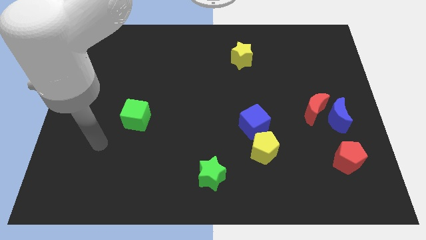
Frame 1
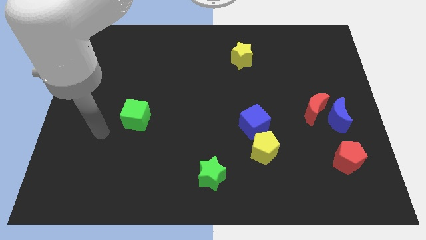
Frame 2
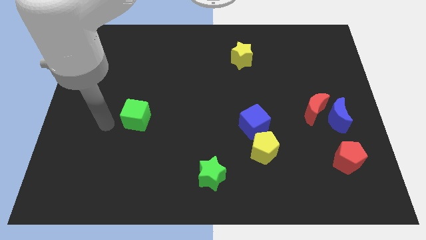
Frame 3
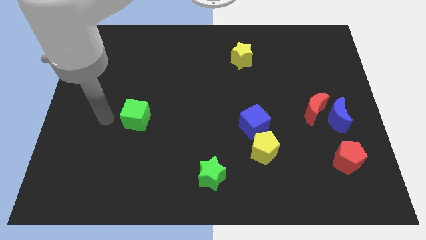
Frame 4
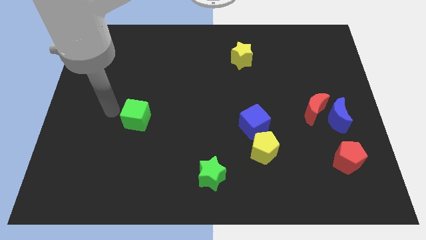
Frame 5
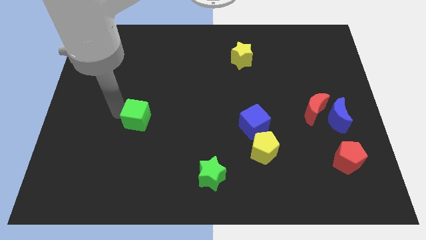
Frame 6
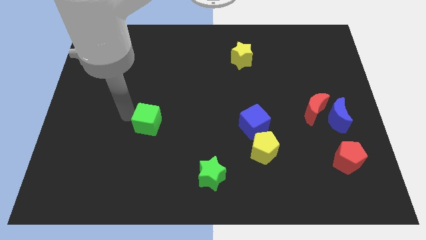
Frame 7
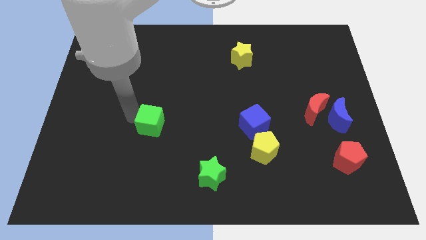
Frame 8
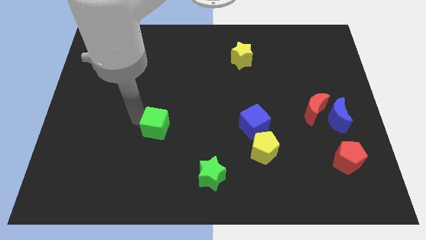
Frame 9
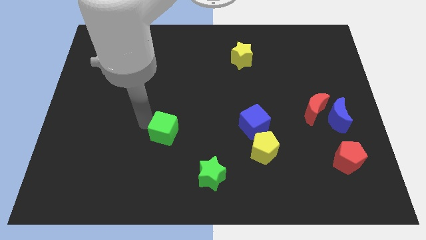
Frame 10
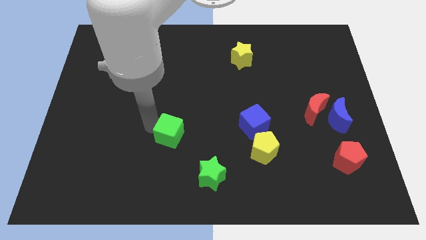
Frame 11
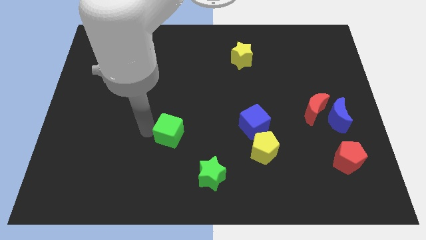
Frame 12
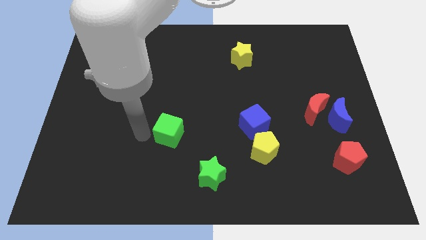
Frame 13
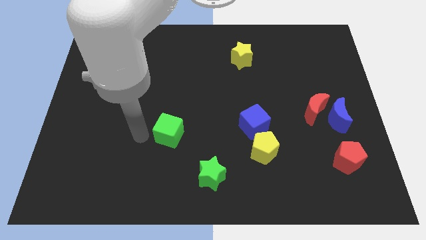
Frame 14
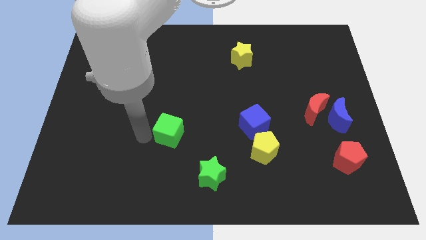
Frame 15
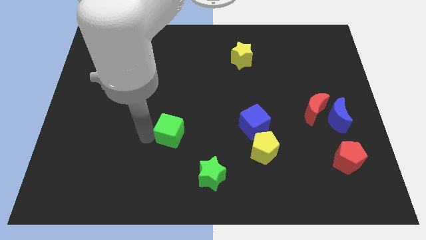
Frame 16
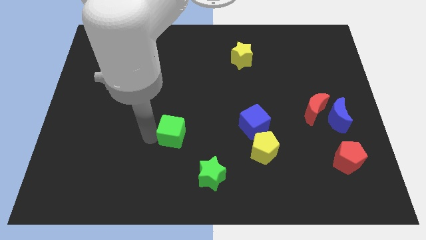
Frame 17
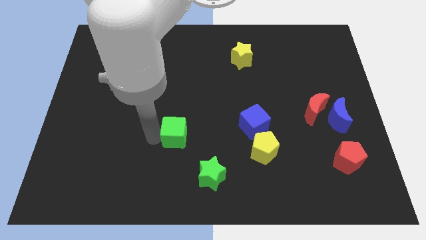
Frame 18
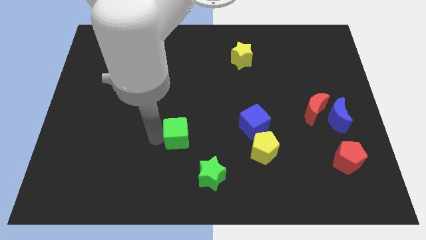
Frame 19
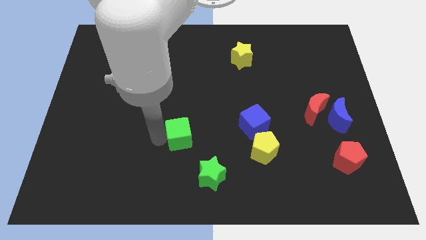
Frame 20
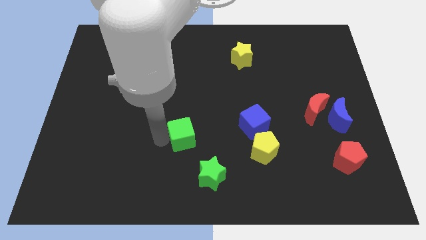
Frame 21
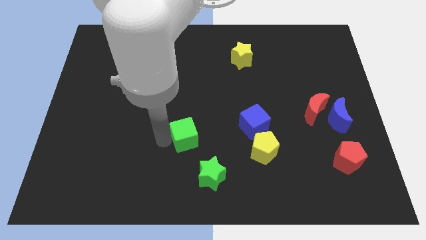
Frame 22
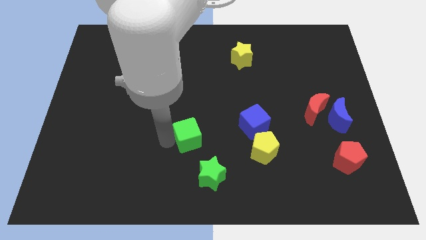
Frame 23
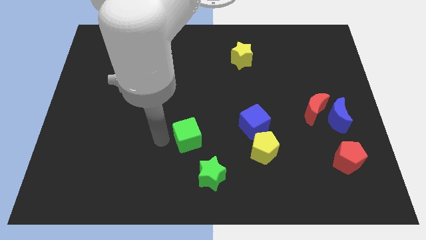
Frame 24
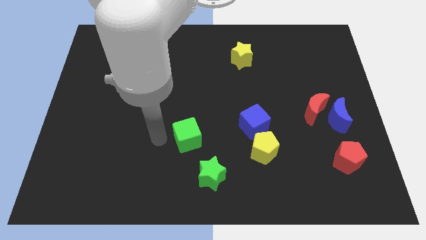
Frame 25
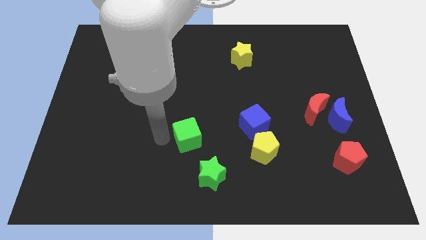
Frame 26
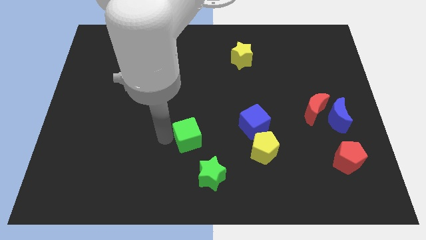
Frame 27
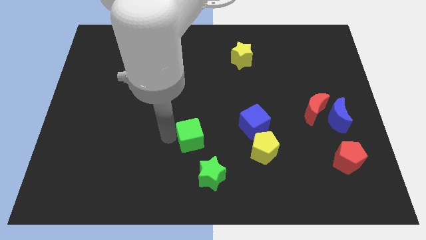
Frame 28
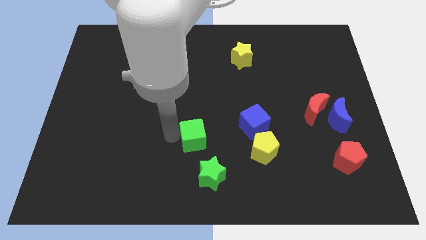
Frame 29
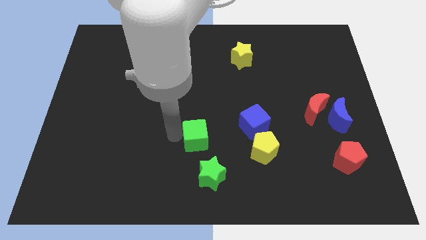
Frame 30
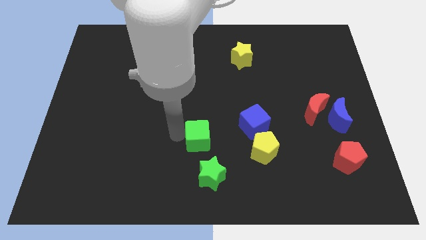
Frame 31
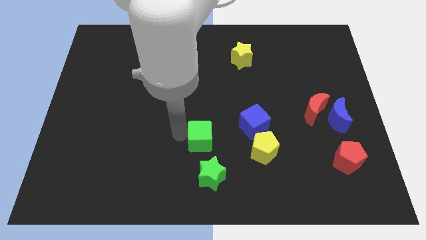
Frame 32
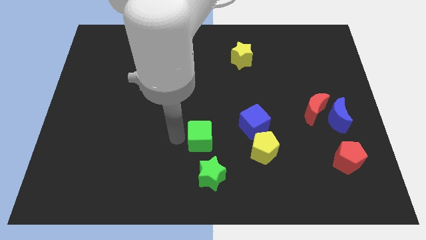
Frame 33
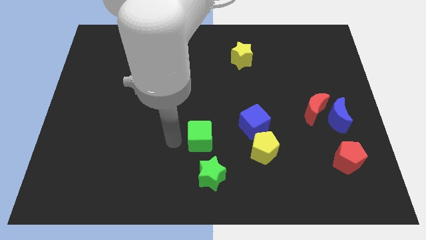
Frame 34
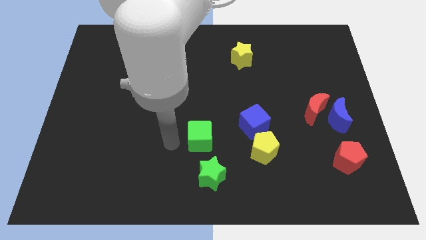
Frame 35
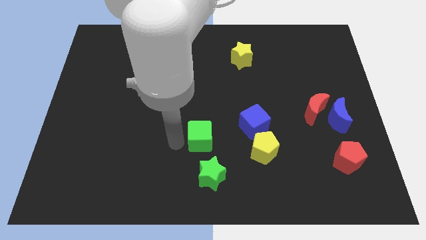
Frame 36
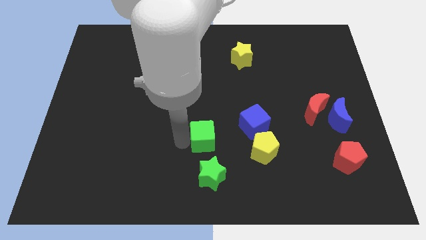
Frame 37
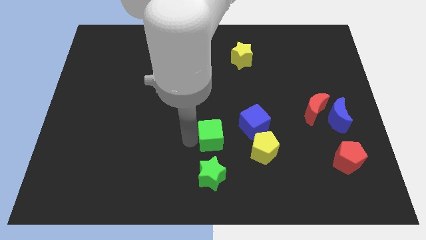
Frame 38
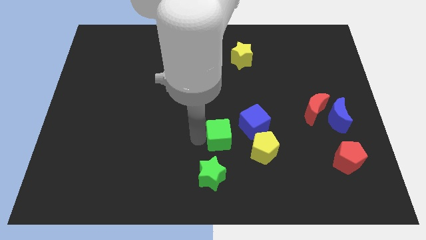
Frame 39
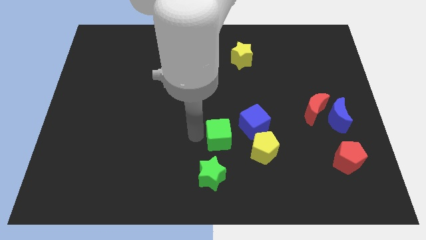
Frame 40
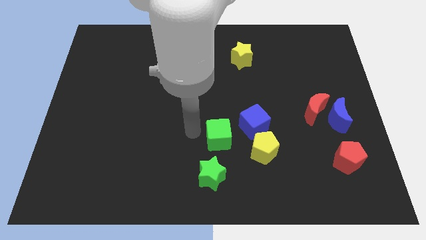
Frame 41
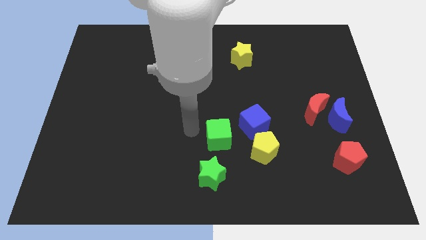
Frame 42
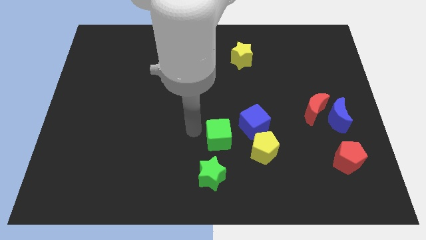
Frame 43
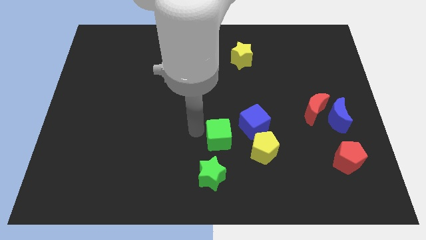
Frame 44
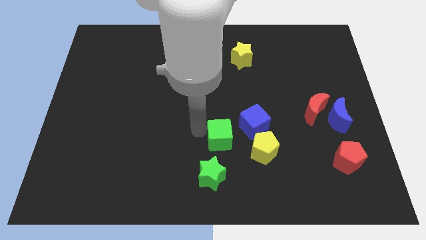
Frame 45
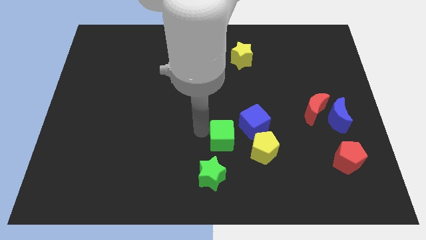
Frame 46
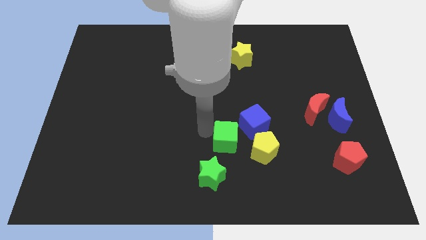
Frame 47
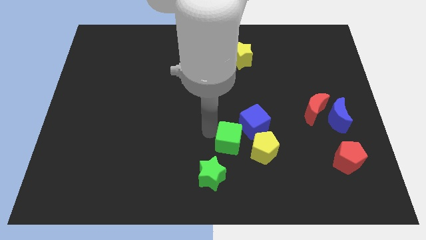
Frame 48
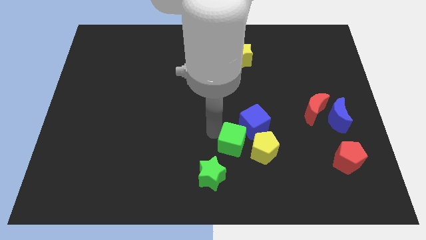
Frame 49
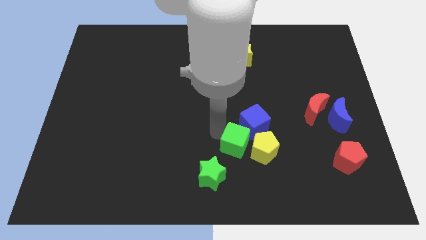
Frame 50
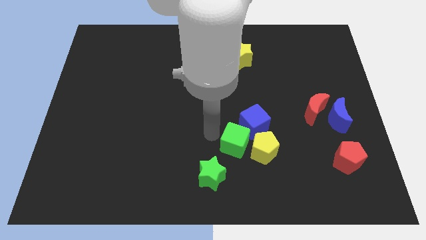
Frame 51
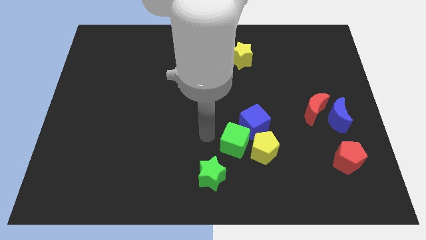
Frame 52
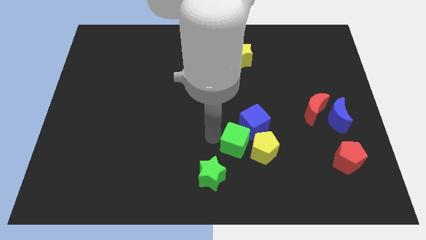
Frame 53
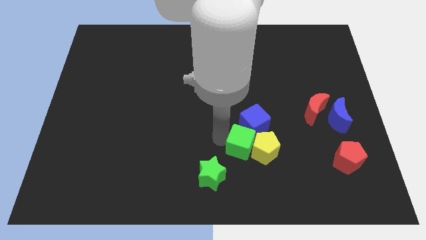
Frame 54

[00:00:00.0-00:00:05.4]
put the green cube close to the yellow pentagon

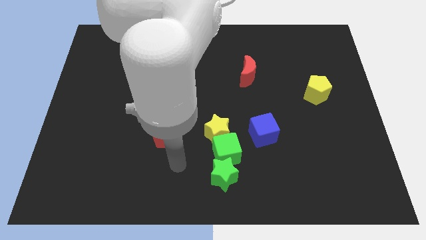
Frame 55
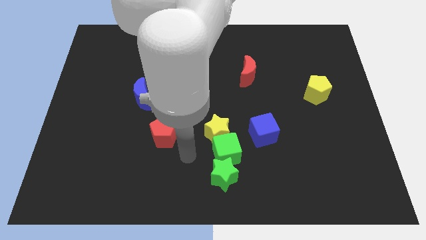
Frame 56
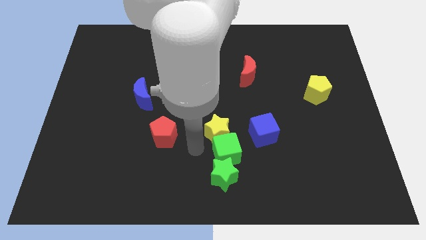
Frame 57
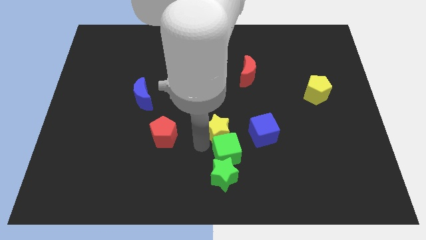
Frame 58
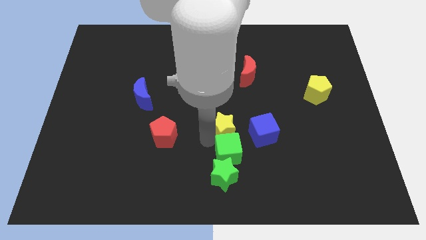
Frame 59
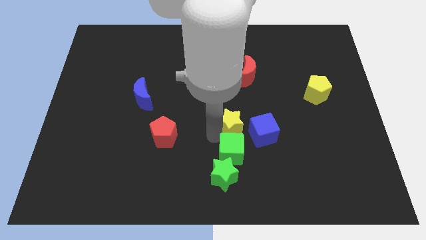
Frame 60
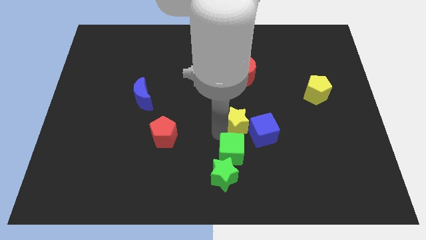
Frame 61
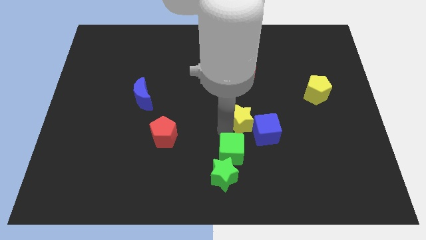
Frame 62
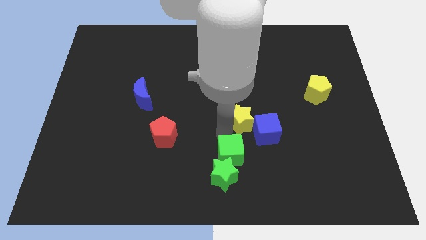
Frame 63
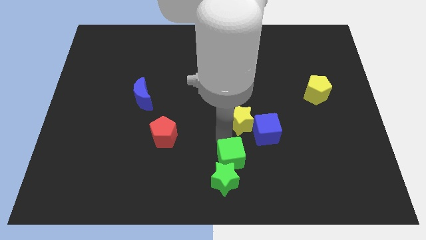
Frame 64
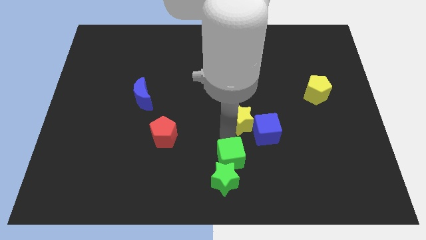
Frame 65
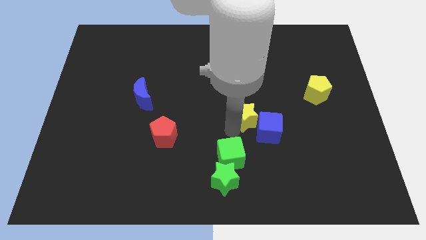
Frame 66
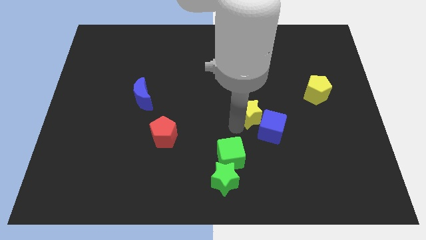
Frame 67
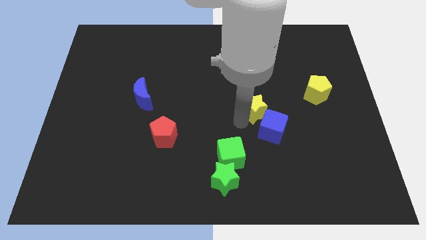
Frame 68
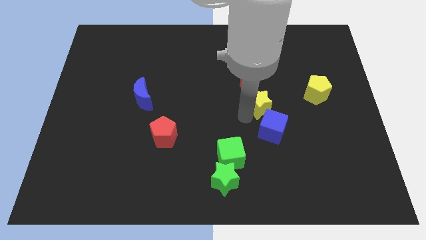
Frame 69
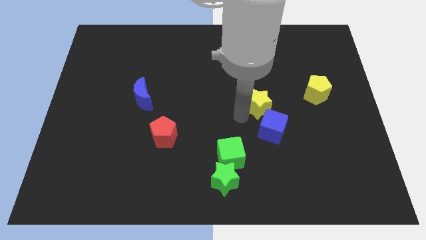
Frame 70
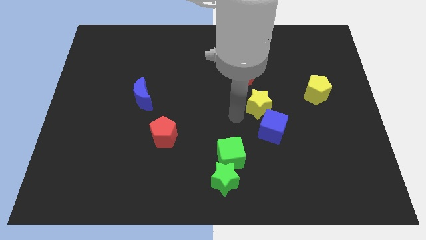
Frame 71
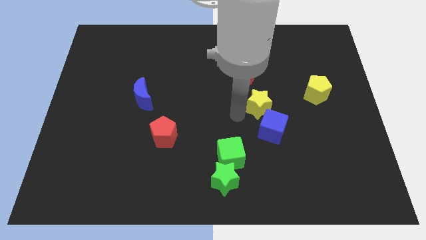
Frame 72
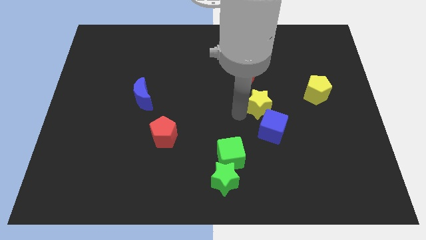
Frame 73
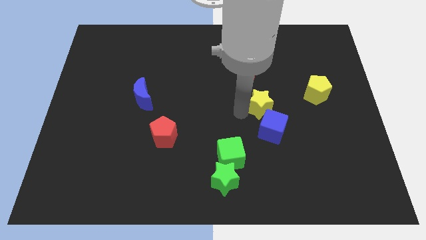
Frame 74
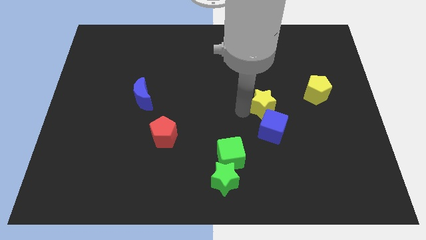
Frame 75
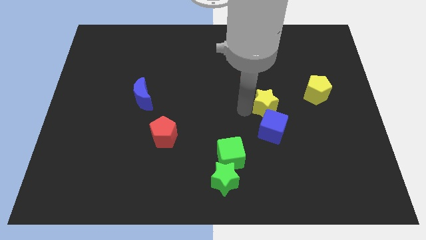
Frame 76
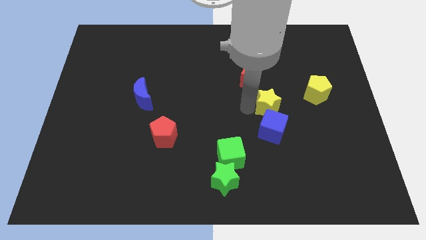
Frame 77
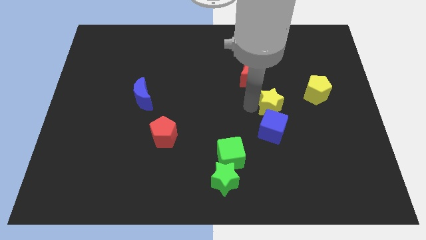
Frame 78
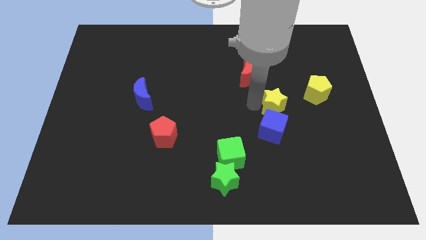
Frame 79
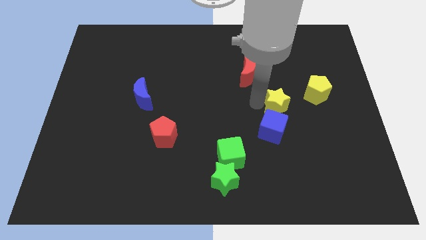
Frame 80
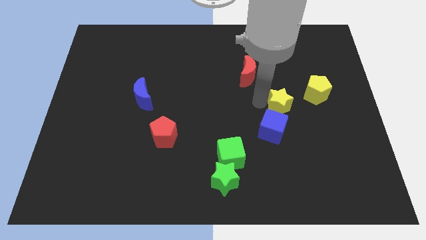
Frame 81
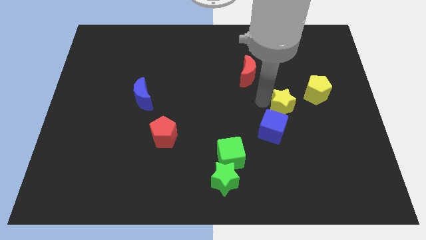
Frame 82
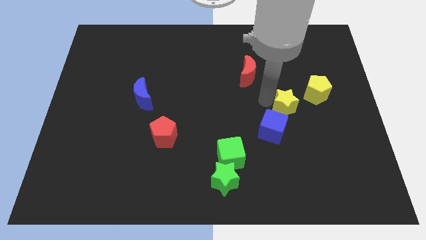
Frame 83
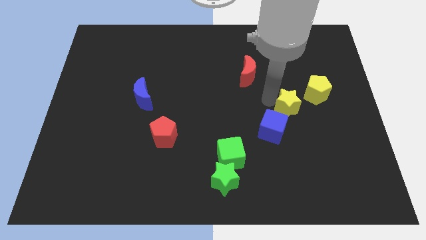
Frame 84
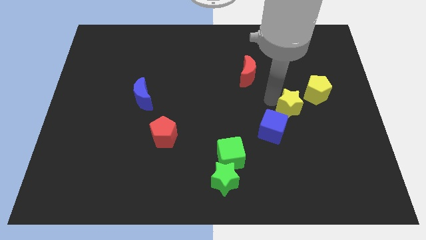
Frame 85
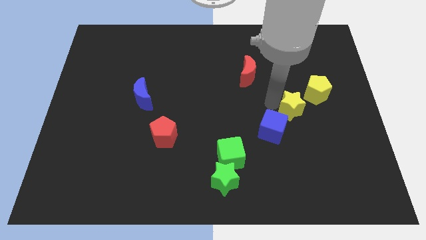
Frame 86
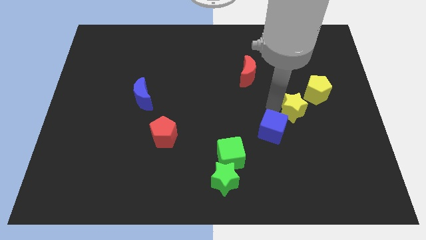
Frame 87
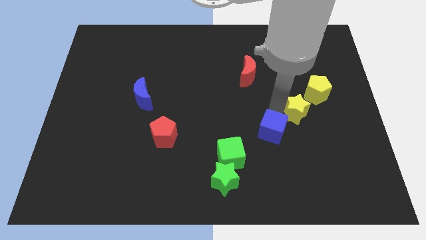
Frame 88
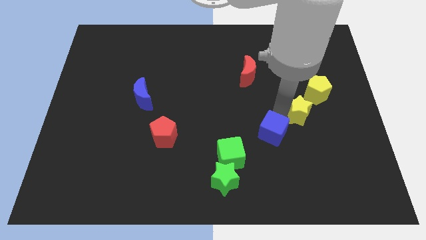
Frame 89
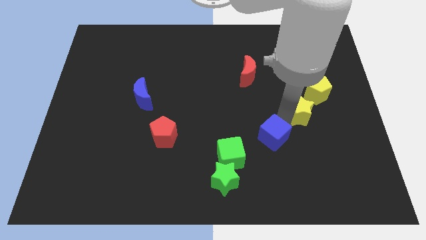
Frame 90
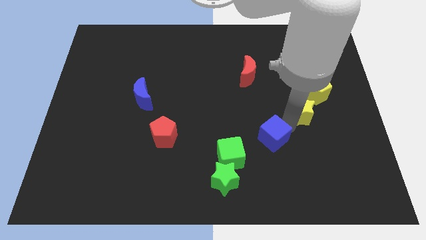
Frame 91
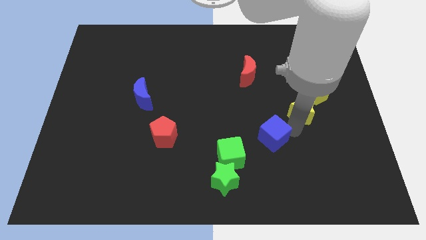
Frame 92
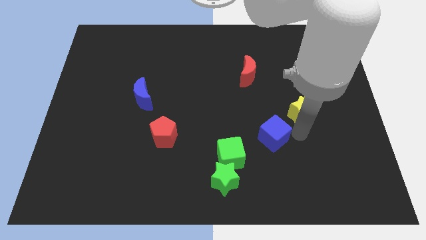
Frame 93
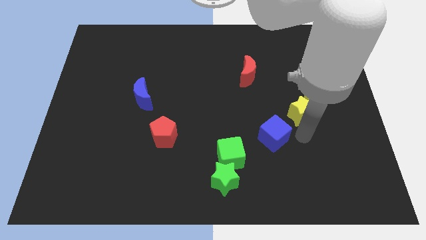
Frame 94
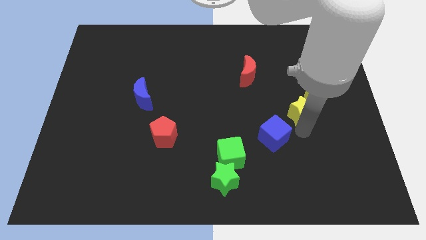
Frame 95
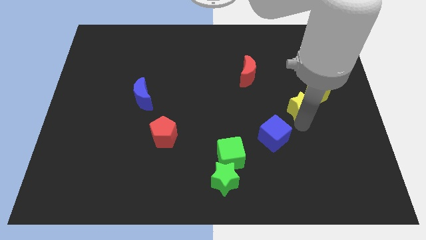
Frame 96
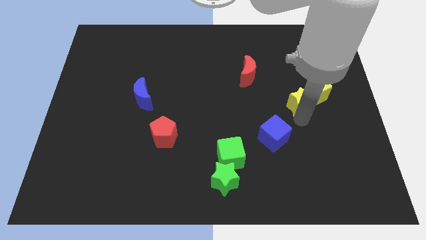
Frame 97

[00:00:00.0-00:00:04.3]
slide the yellow star next to the yellow pentagon
